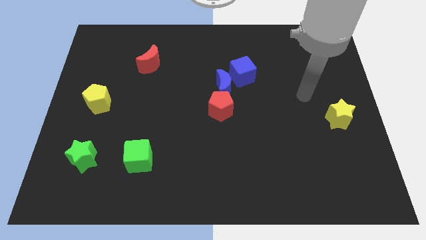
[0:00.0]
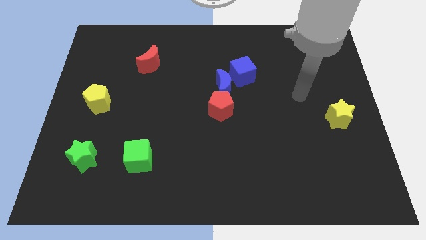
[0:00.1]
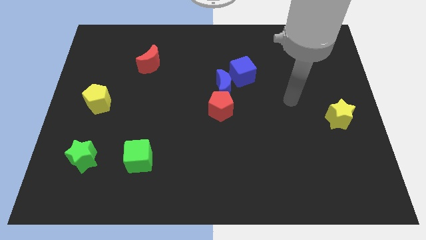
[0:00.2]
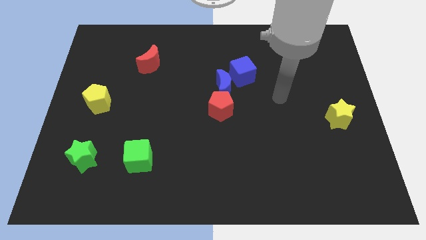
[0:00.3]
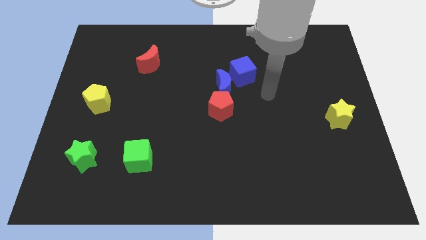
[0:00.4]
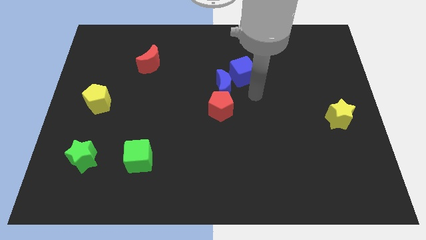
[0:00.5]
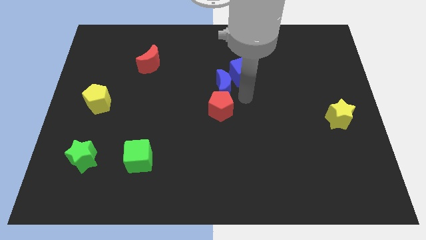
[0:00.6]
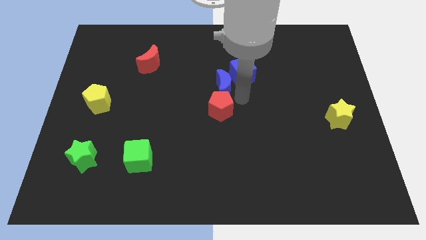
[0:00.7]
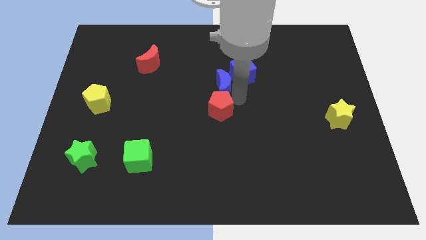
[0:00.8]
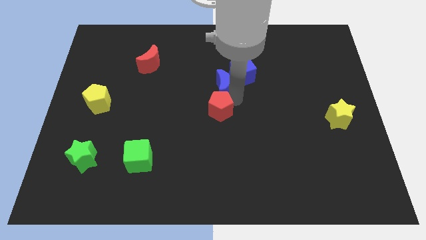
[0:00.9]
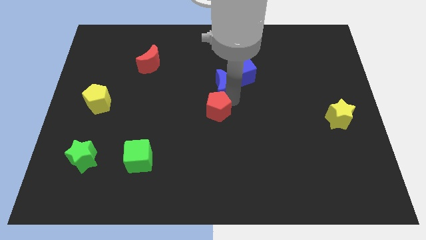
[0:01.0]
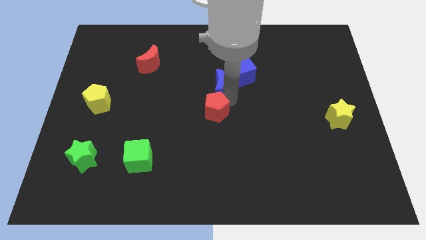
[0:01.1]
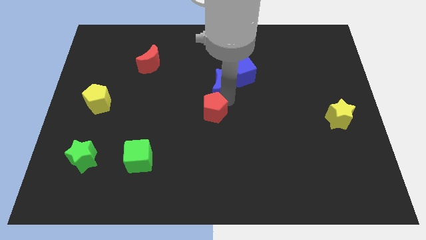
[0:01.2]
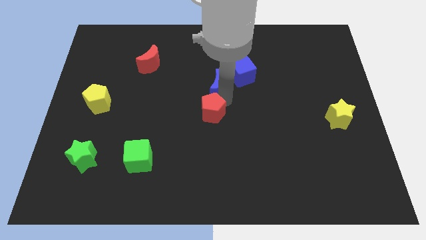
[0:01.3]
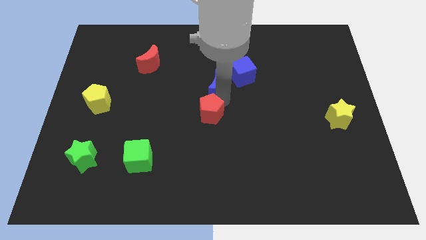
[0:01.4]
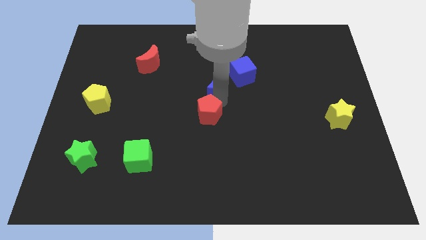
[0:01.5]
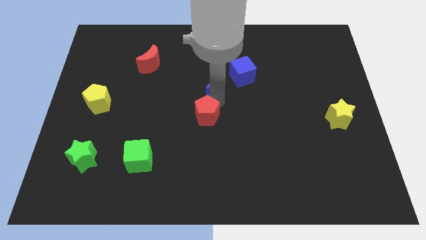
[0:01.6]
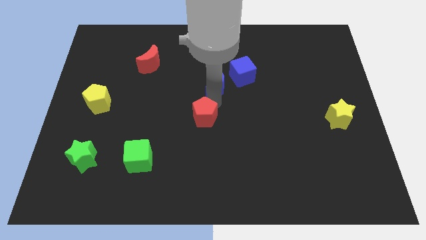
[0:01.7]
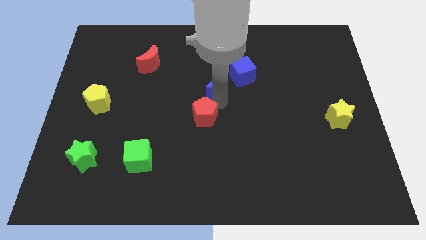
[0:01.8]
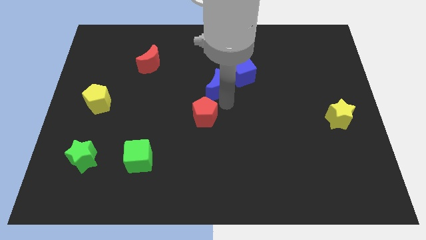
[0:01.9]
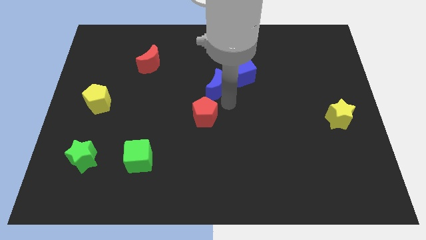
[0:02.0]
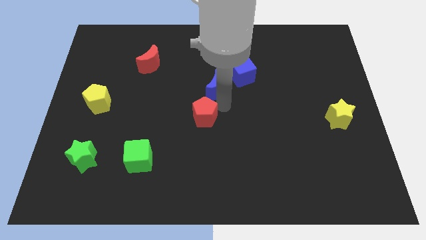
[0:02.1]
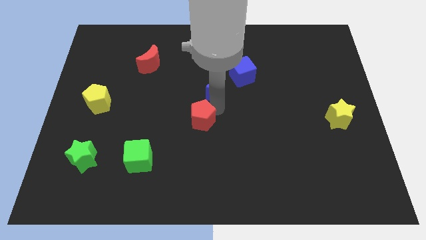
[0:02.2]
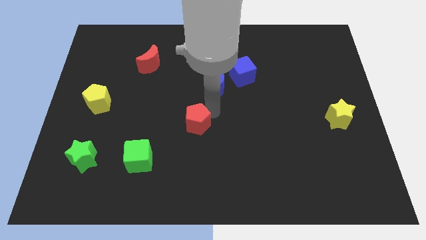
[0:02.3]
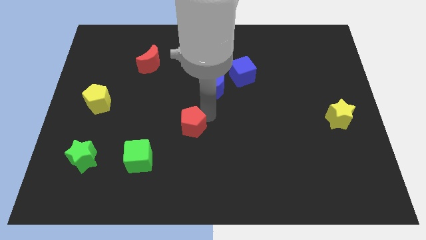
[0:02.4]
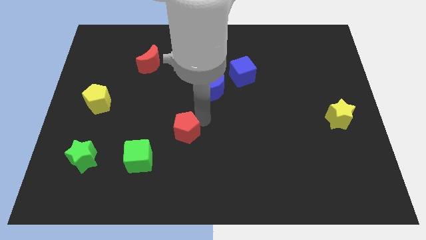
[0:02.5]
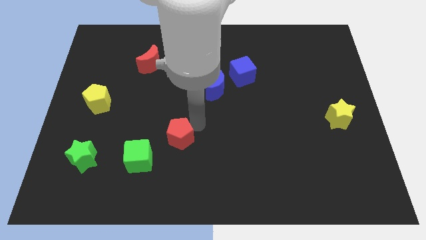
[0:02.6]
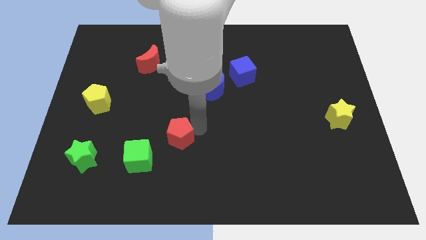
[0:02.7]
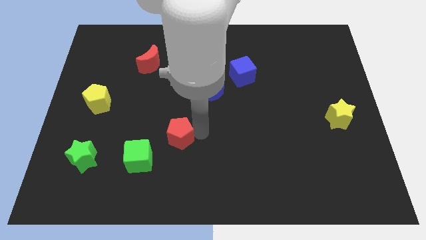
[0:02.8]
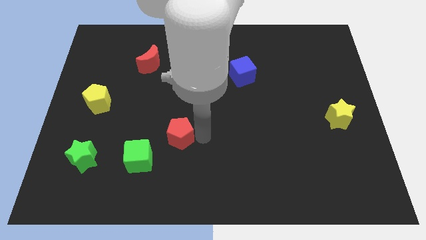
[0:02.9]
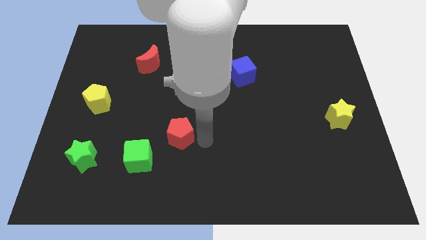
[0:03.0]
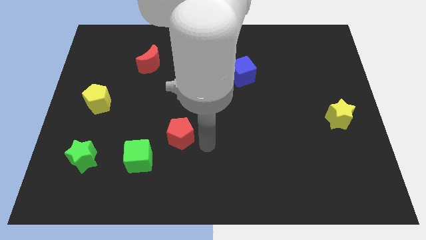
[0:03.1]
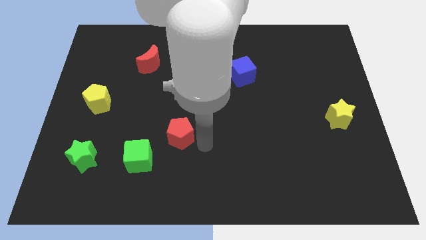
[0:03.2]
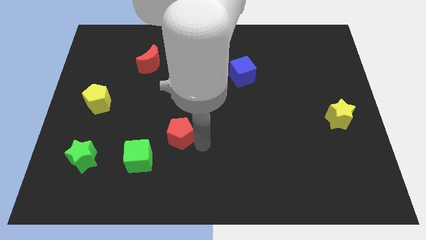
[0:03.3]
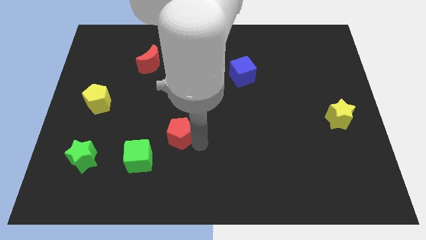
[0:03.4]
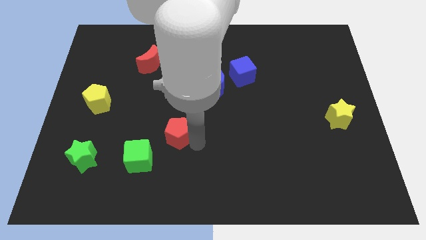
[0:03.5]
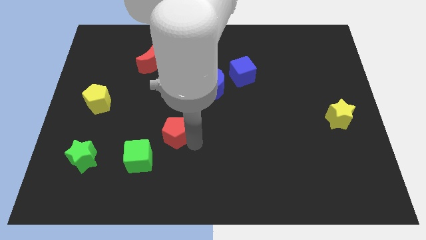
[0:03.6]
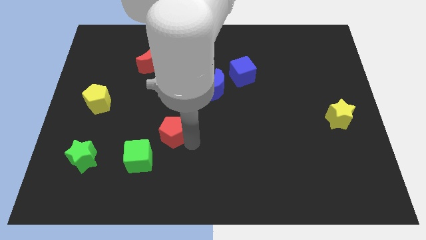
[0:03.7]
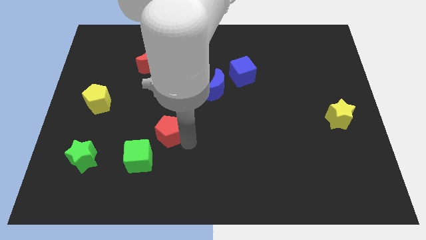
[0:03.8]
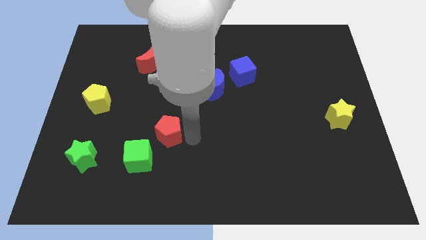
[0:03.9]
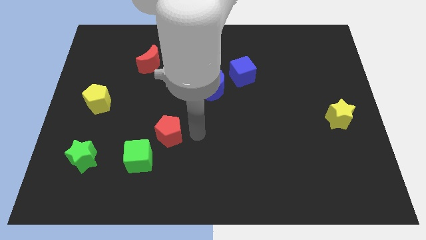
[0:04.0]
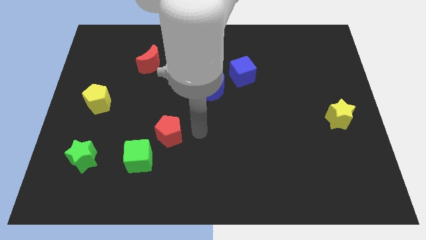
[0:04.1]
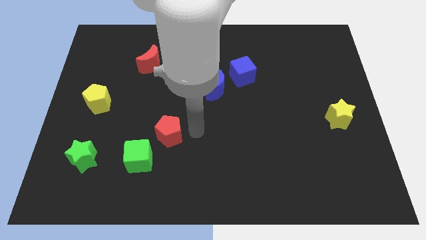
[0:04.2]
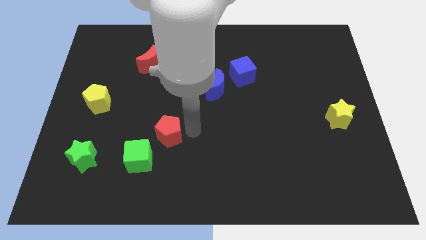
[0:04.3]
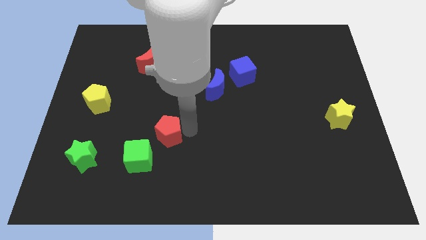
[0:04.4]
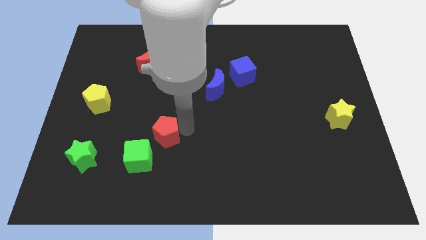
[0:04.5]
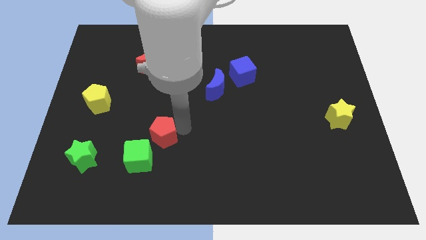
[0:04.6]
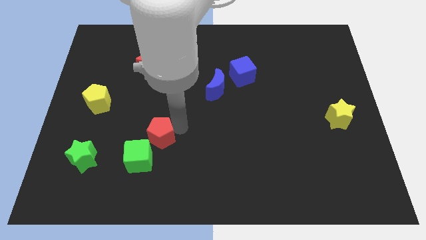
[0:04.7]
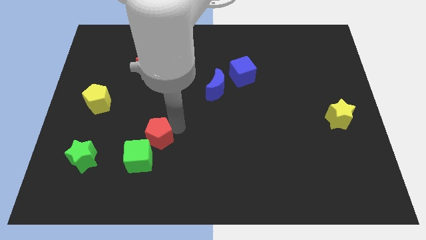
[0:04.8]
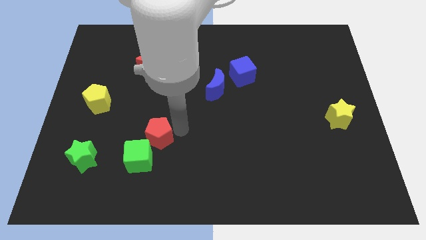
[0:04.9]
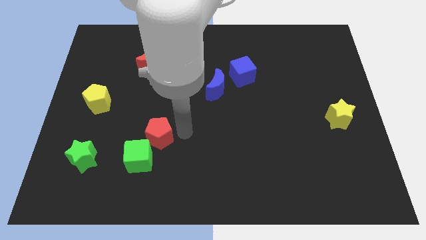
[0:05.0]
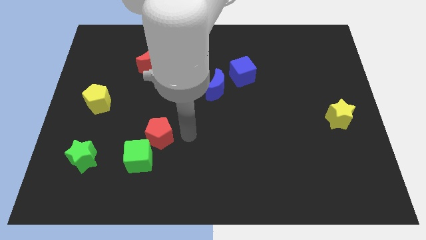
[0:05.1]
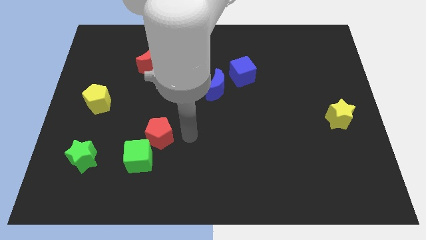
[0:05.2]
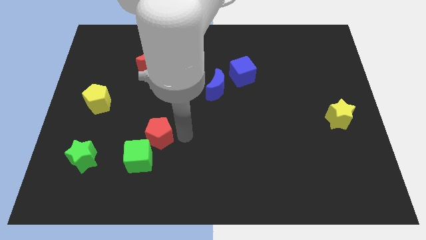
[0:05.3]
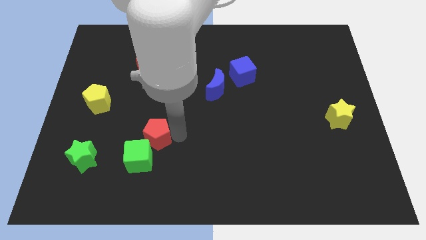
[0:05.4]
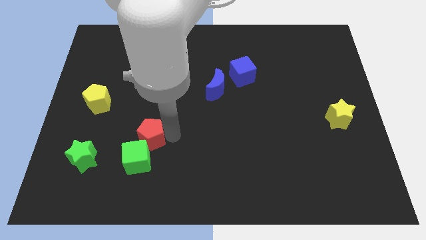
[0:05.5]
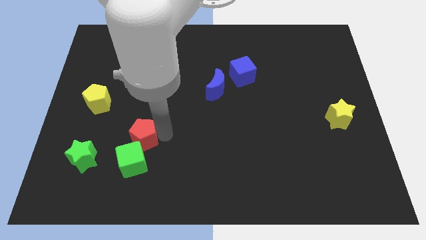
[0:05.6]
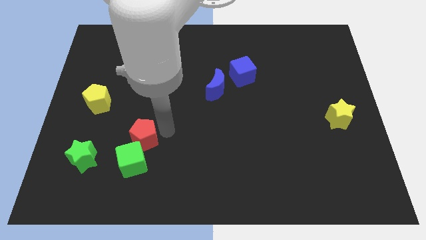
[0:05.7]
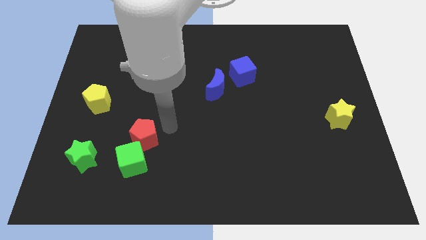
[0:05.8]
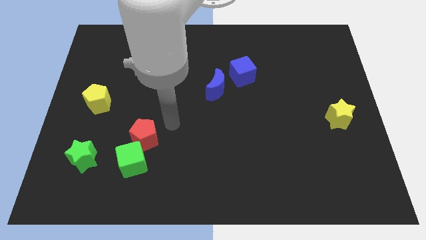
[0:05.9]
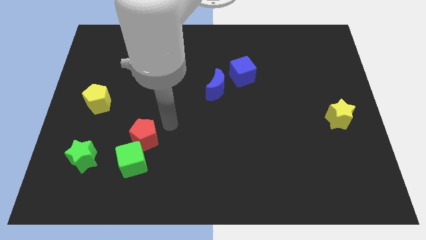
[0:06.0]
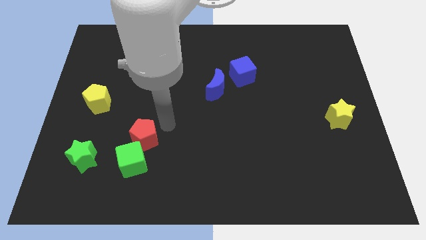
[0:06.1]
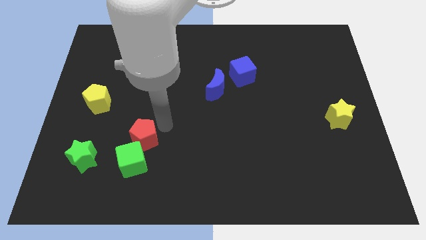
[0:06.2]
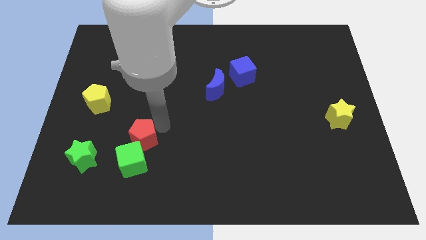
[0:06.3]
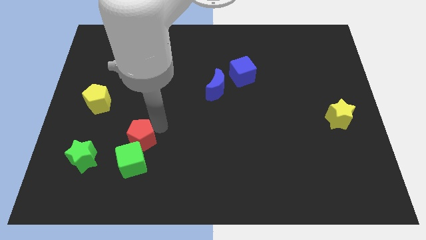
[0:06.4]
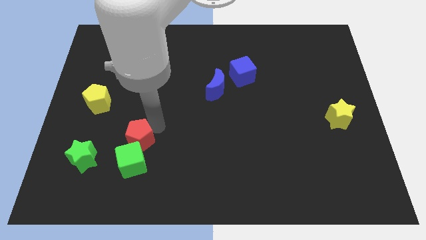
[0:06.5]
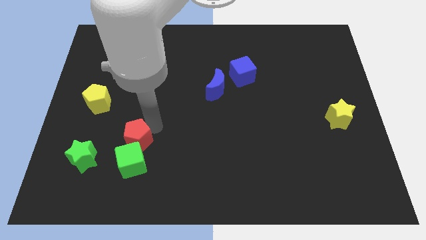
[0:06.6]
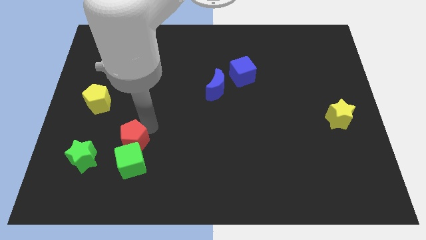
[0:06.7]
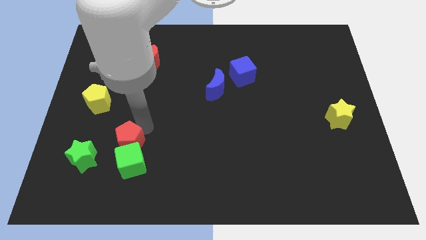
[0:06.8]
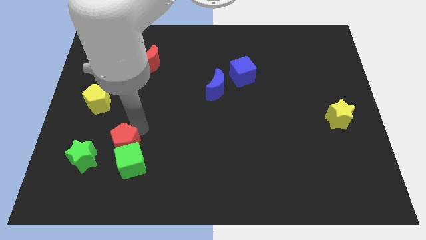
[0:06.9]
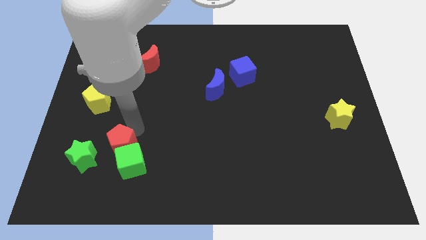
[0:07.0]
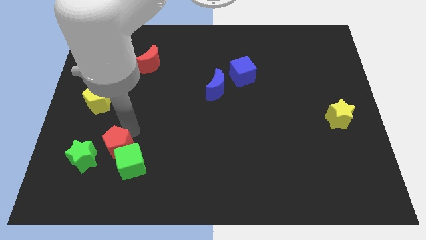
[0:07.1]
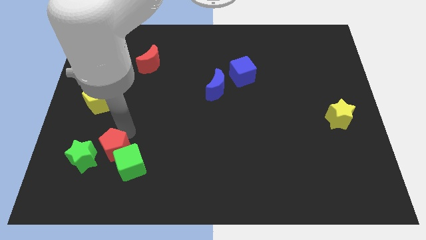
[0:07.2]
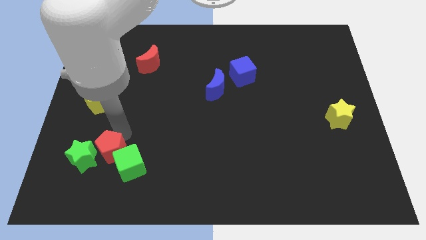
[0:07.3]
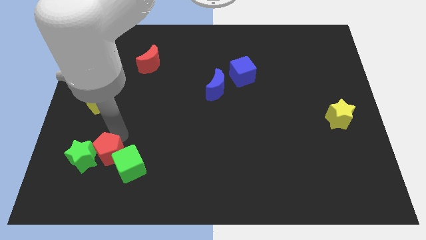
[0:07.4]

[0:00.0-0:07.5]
push the red pentagon diagonally down and to the right of the green star
